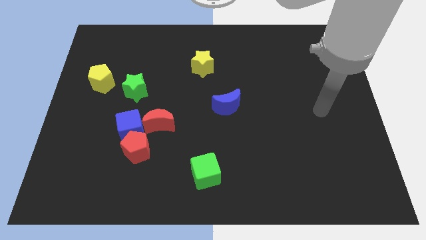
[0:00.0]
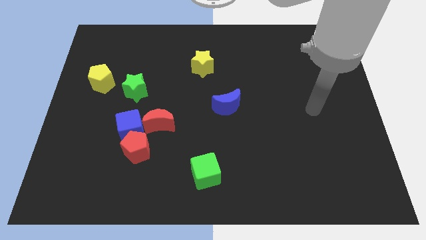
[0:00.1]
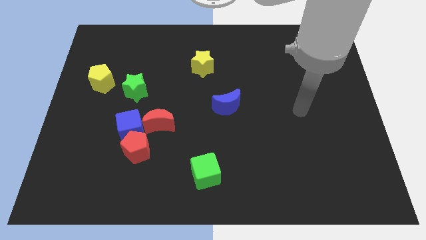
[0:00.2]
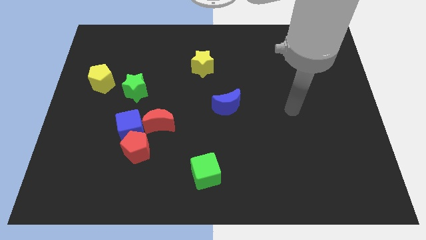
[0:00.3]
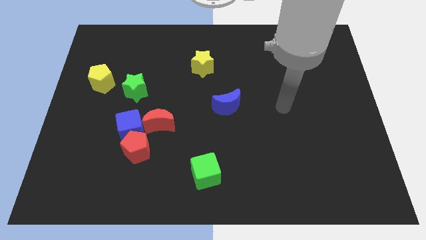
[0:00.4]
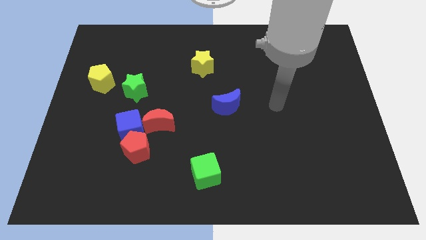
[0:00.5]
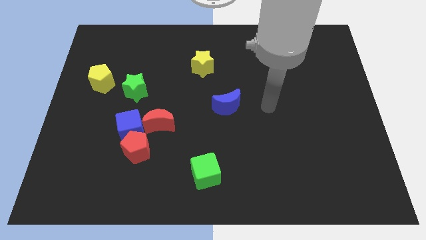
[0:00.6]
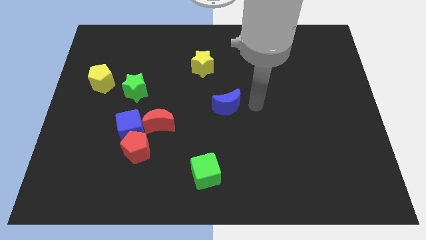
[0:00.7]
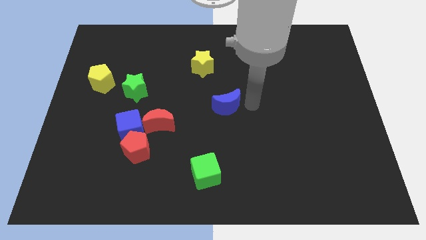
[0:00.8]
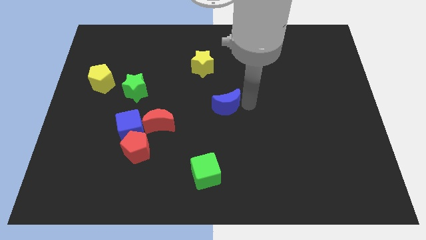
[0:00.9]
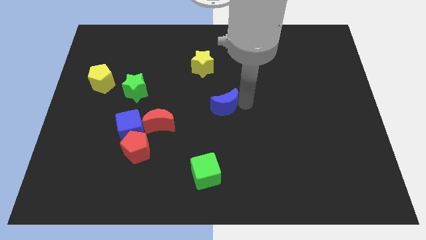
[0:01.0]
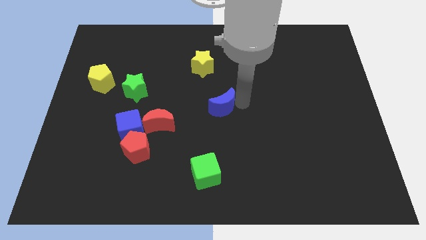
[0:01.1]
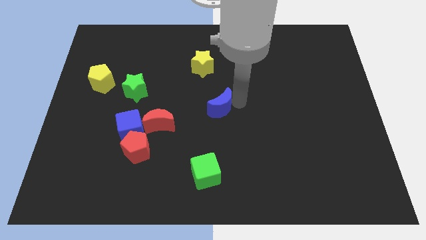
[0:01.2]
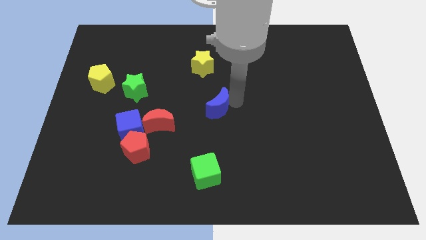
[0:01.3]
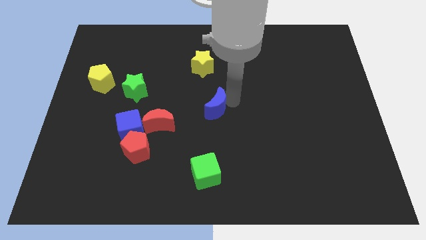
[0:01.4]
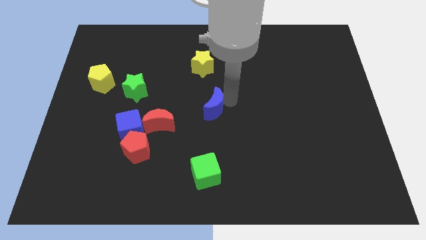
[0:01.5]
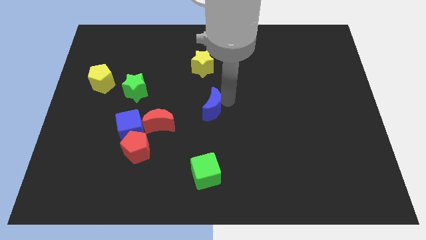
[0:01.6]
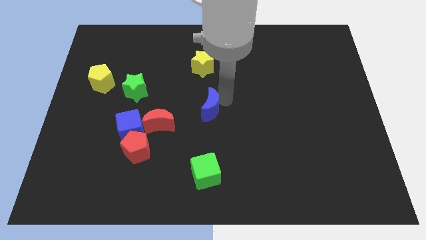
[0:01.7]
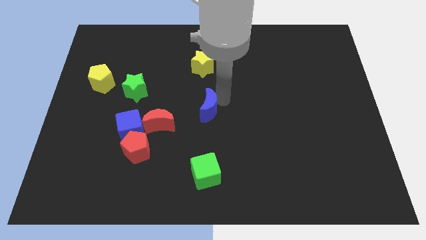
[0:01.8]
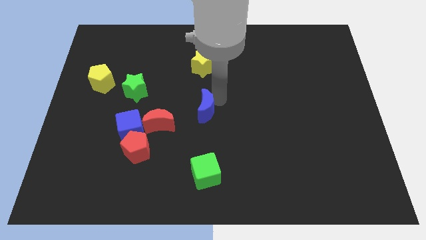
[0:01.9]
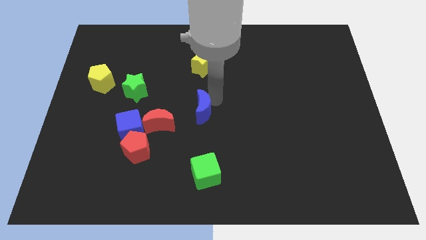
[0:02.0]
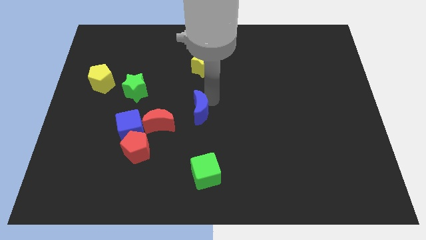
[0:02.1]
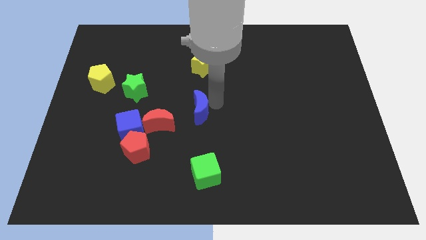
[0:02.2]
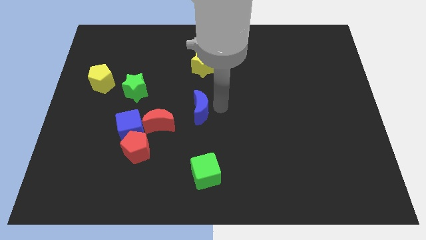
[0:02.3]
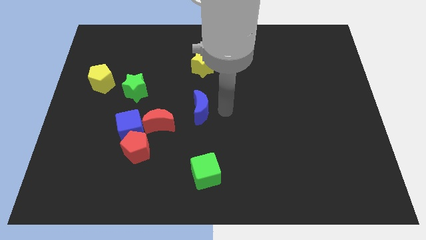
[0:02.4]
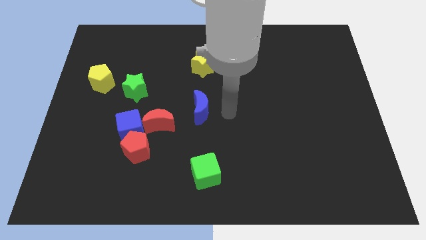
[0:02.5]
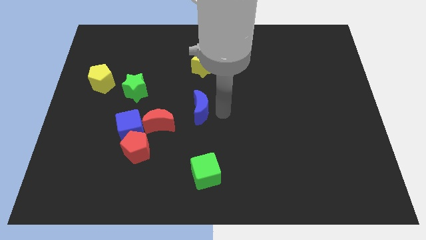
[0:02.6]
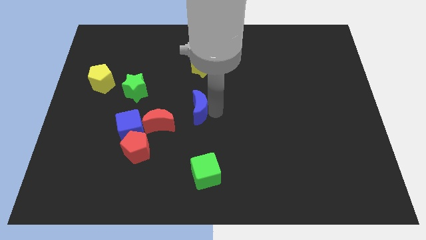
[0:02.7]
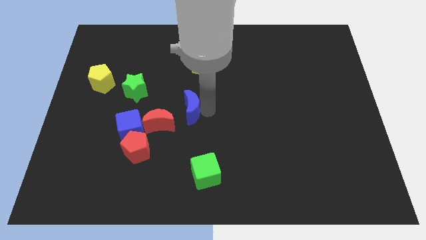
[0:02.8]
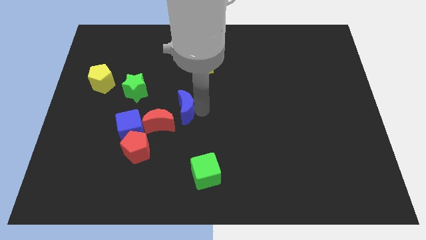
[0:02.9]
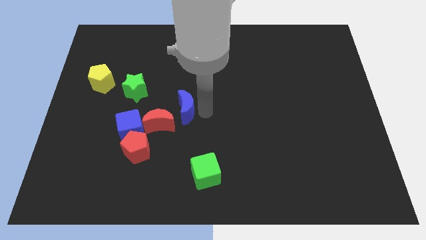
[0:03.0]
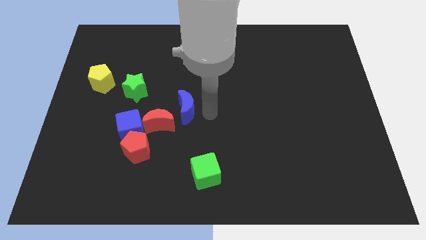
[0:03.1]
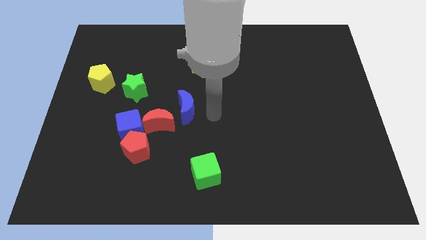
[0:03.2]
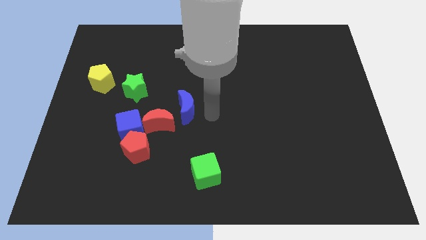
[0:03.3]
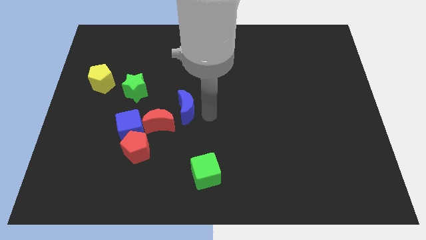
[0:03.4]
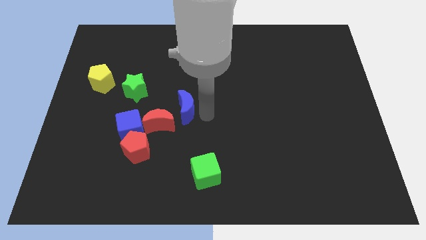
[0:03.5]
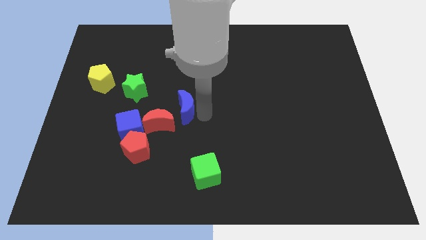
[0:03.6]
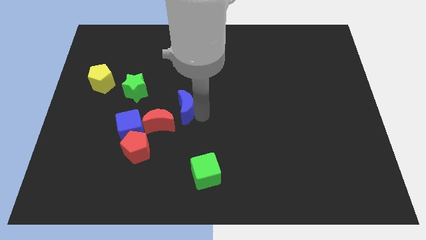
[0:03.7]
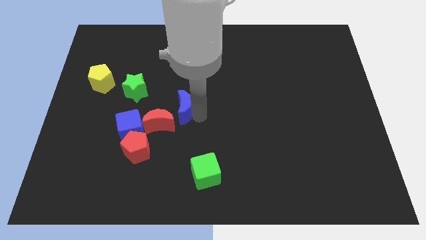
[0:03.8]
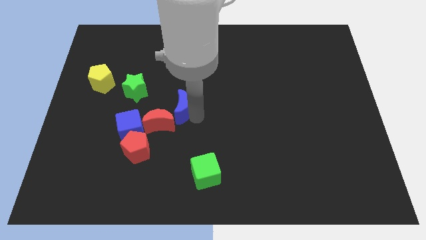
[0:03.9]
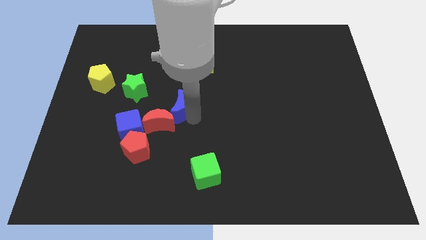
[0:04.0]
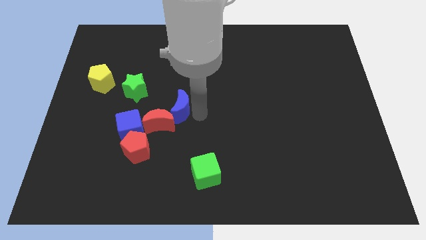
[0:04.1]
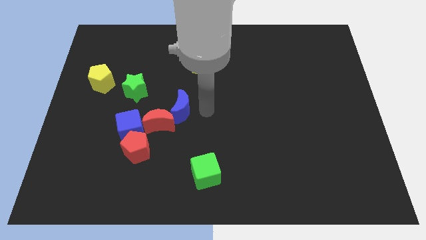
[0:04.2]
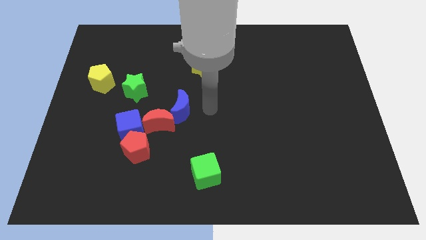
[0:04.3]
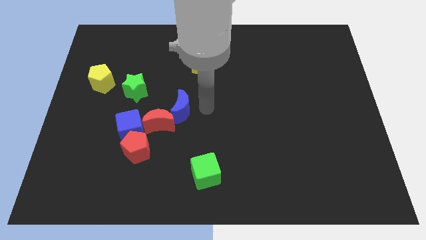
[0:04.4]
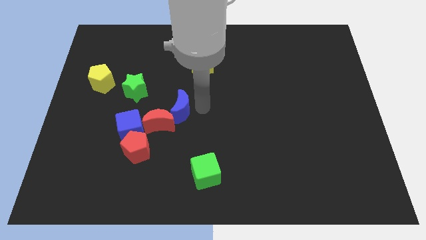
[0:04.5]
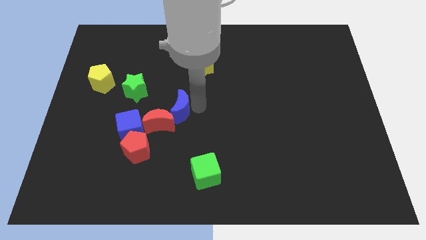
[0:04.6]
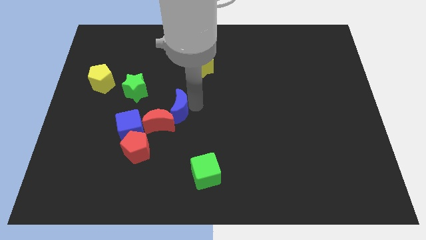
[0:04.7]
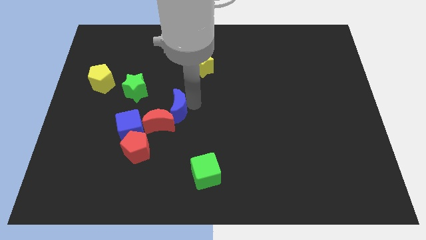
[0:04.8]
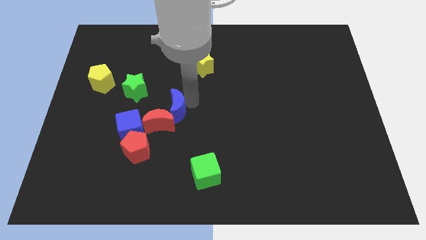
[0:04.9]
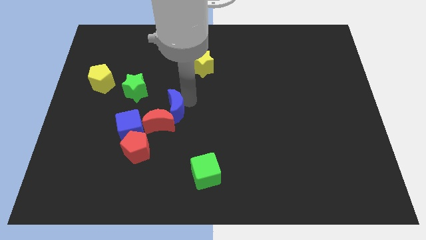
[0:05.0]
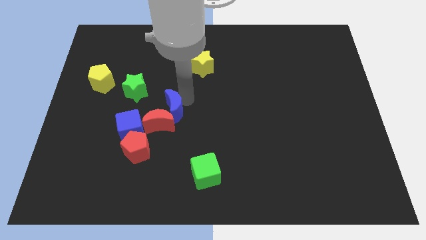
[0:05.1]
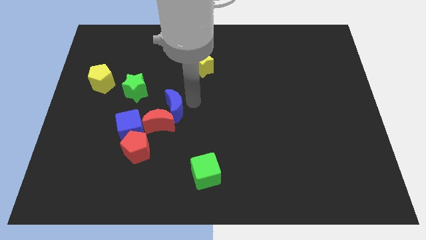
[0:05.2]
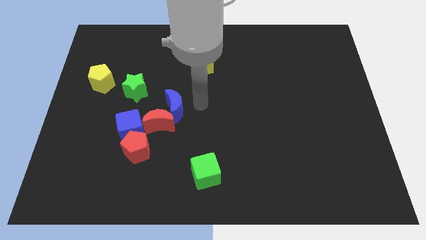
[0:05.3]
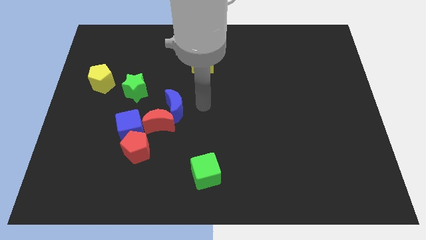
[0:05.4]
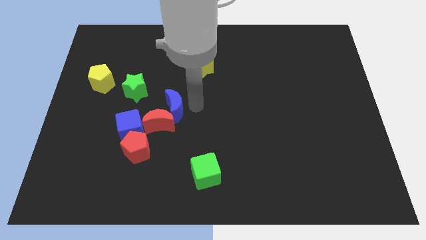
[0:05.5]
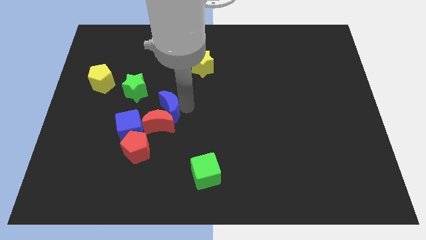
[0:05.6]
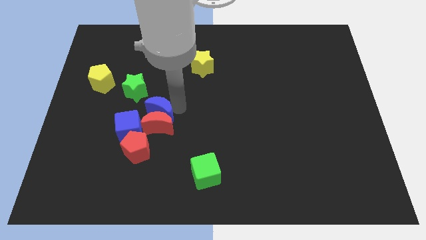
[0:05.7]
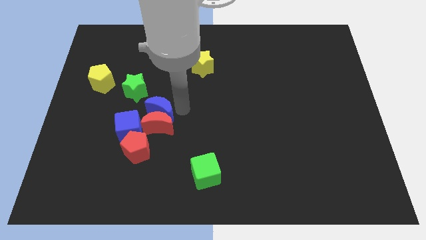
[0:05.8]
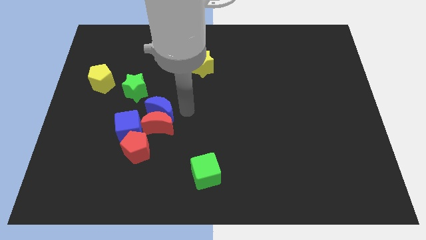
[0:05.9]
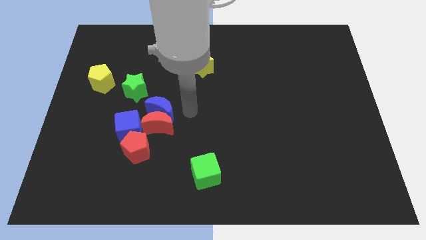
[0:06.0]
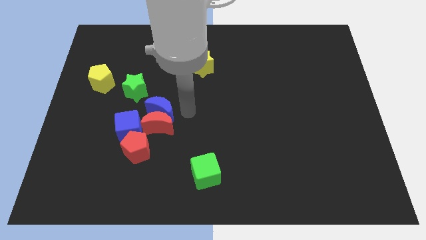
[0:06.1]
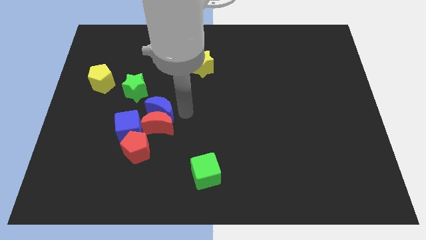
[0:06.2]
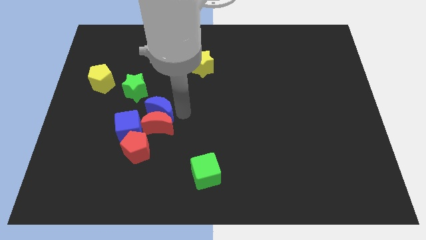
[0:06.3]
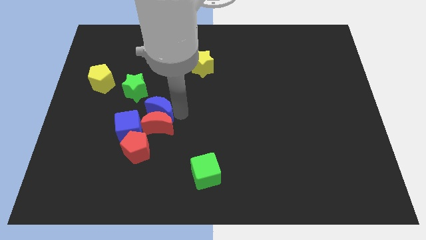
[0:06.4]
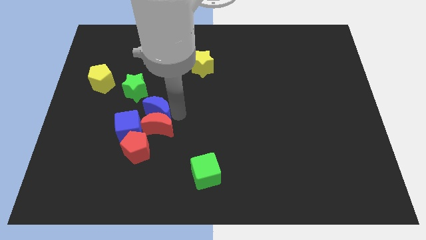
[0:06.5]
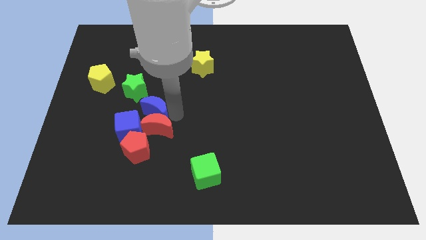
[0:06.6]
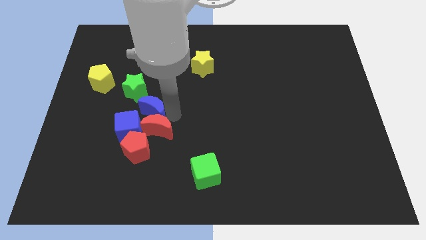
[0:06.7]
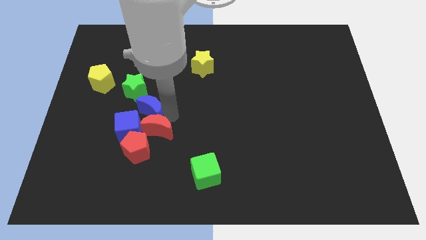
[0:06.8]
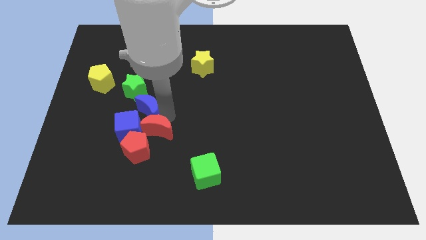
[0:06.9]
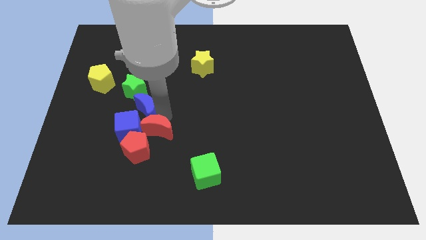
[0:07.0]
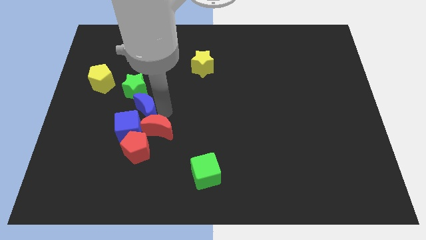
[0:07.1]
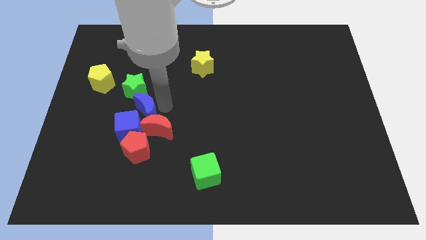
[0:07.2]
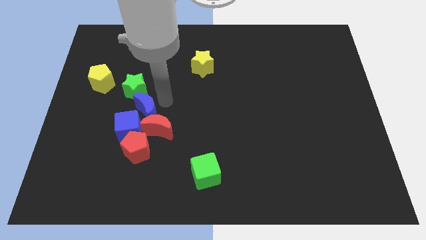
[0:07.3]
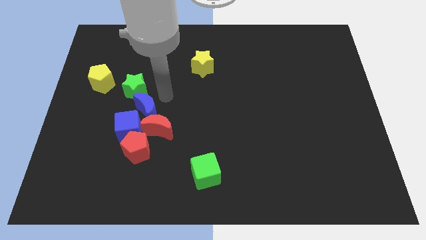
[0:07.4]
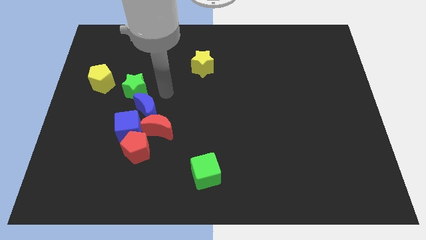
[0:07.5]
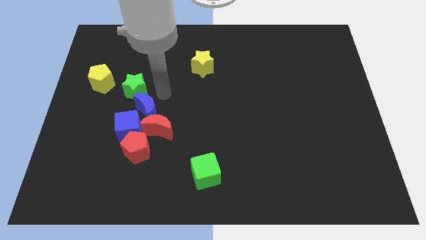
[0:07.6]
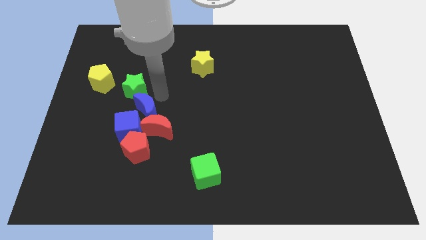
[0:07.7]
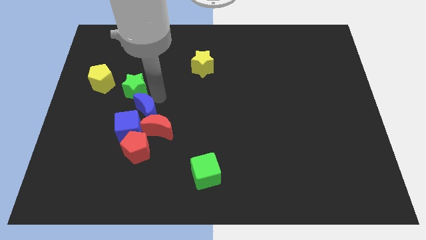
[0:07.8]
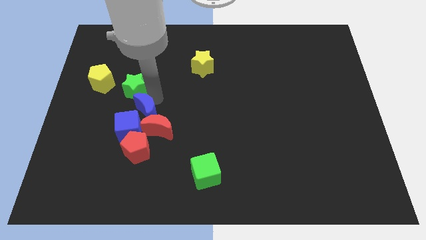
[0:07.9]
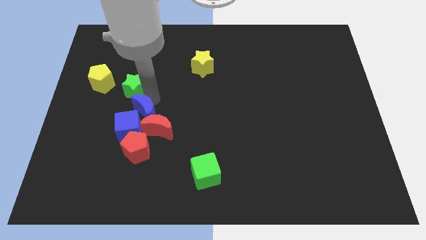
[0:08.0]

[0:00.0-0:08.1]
move the blue moon to the blue cube
